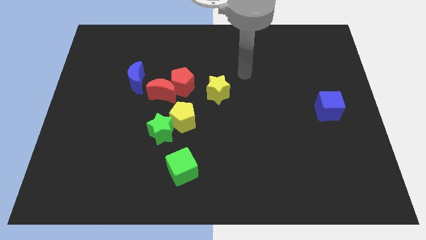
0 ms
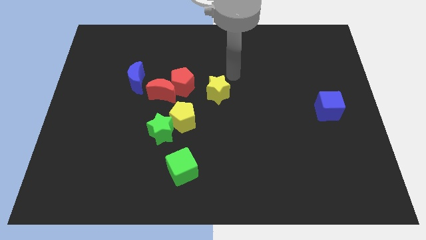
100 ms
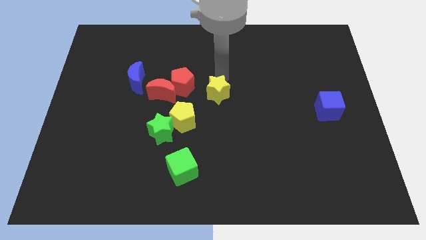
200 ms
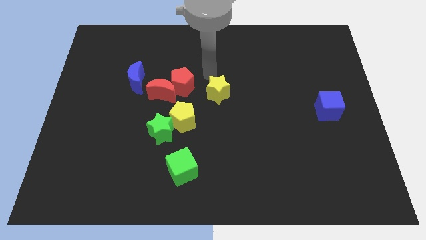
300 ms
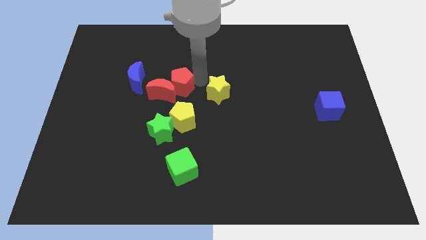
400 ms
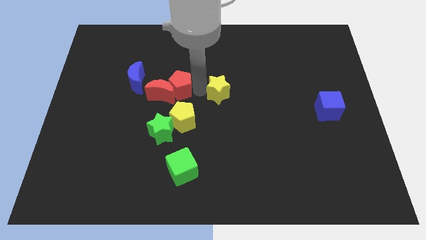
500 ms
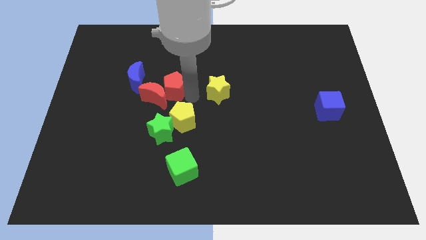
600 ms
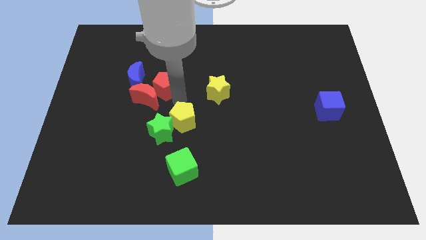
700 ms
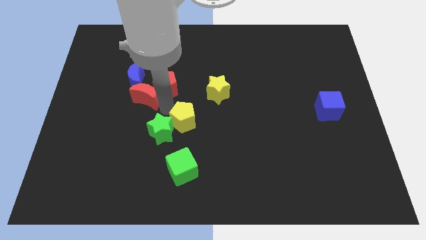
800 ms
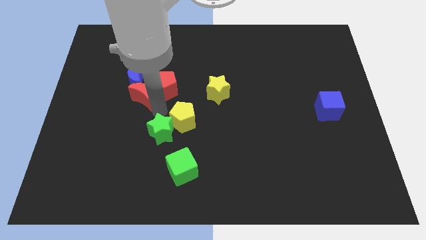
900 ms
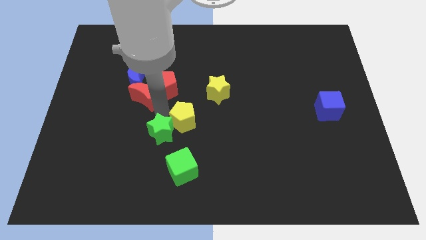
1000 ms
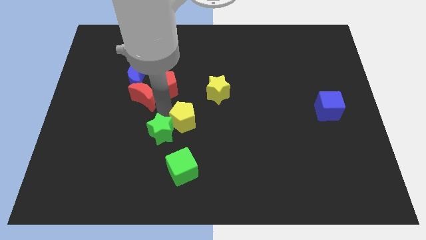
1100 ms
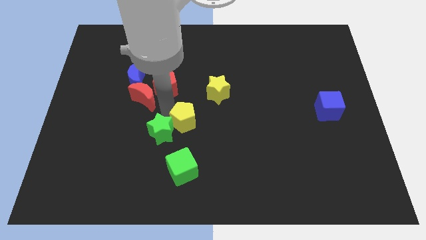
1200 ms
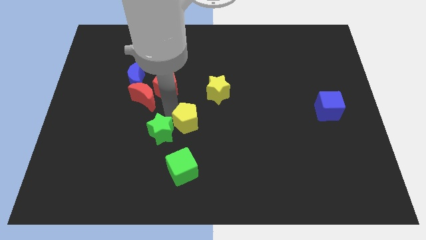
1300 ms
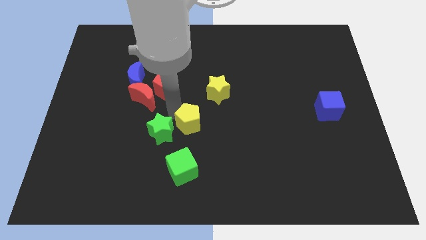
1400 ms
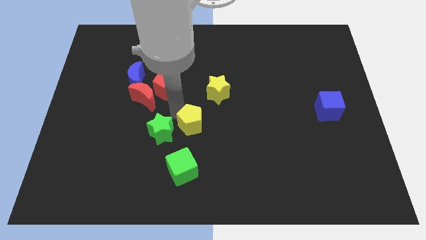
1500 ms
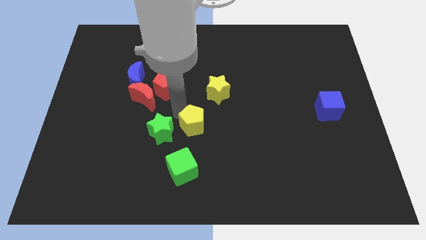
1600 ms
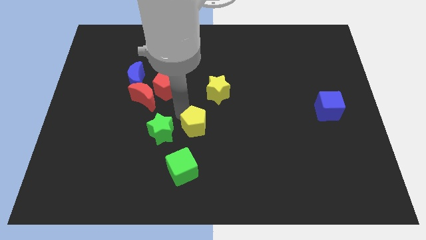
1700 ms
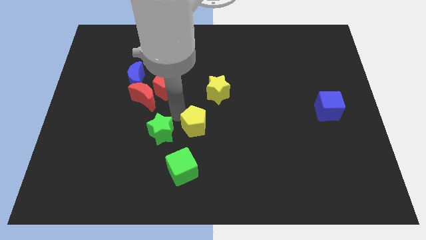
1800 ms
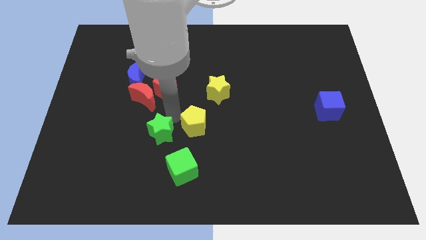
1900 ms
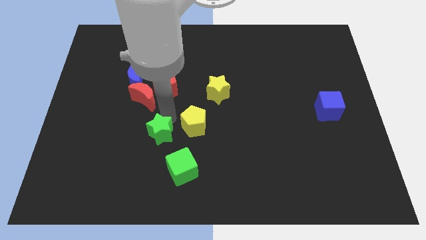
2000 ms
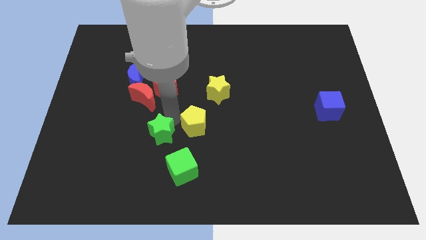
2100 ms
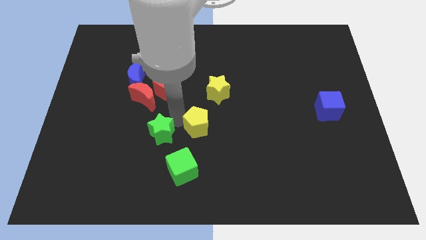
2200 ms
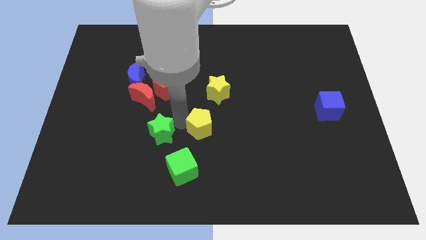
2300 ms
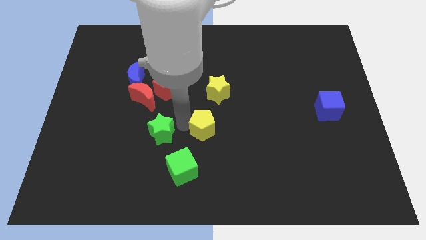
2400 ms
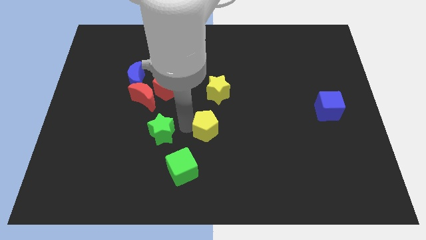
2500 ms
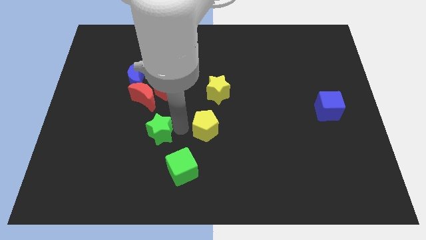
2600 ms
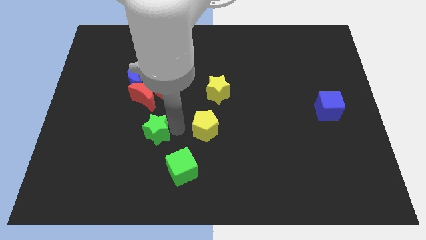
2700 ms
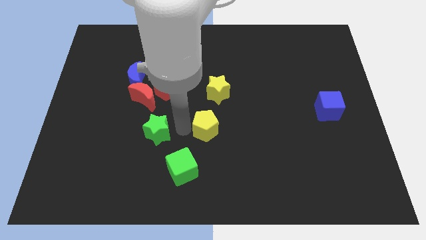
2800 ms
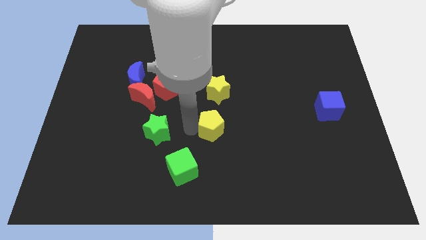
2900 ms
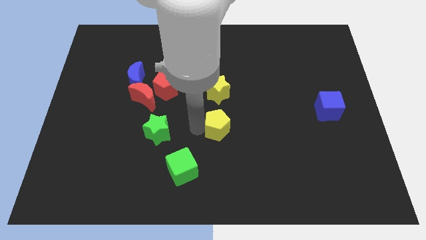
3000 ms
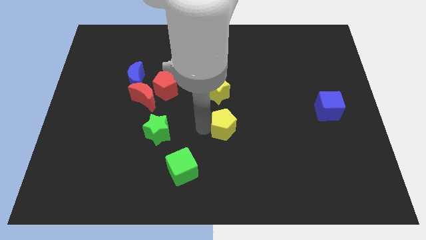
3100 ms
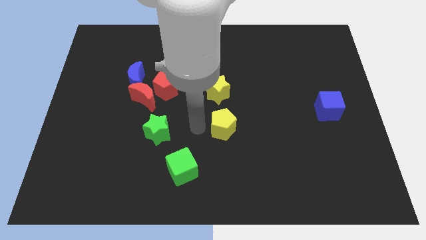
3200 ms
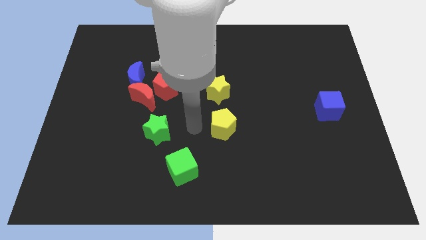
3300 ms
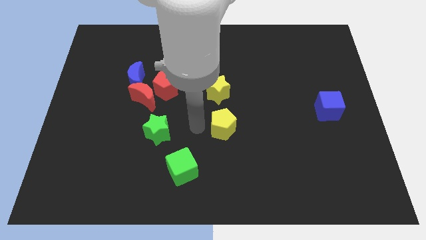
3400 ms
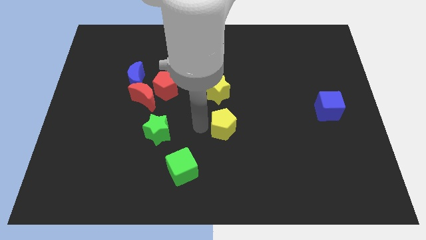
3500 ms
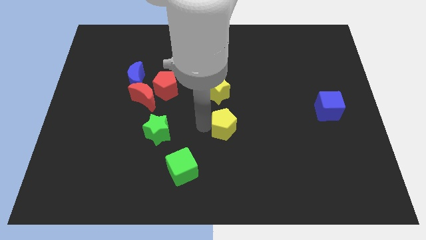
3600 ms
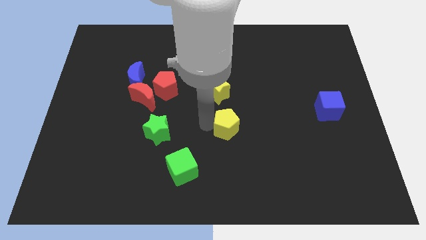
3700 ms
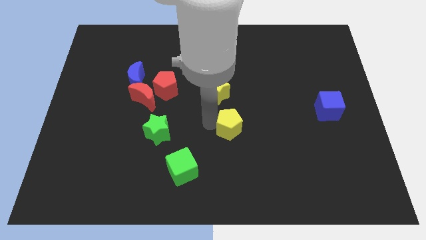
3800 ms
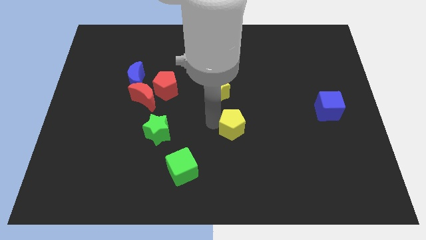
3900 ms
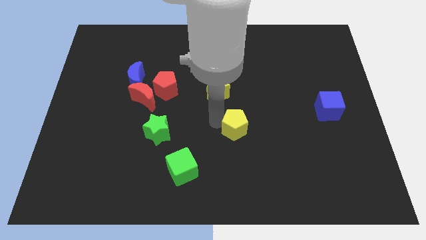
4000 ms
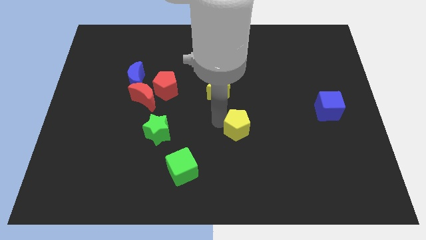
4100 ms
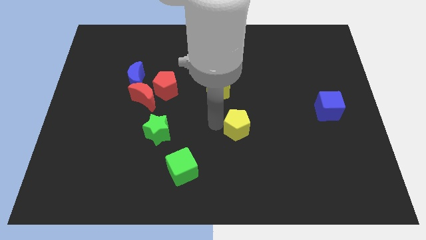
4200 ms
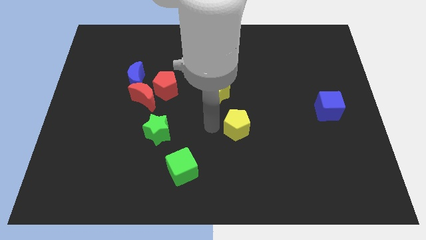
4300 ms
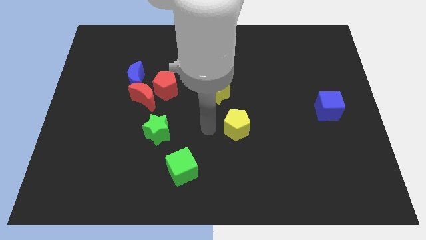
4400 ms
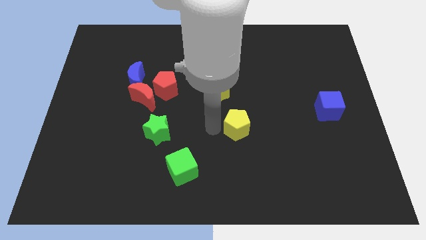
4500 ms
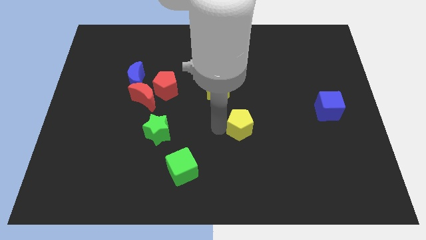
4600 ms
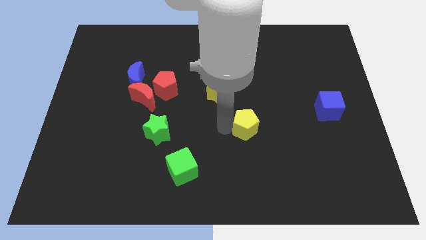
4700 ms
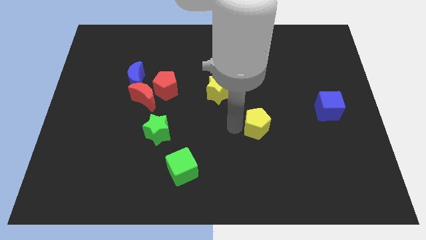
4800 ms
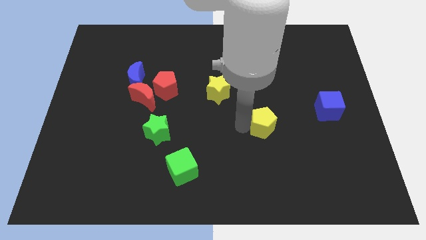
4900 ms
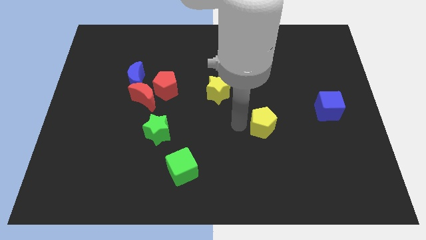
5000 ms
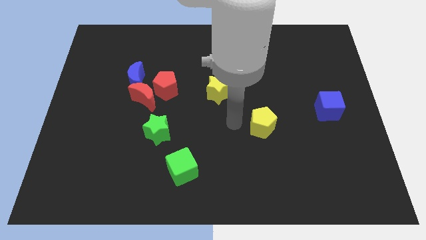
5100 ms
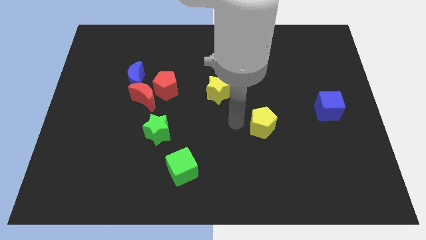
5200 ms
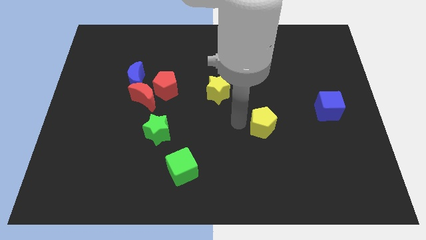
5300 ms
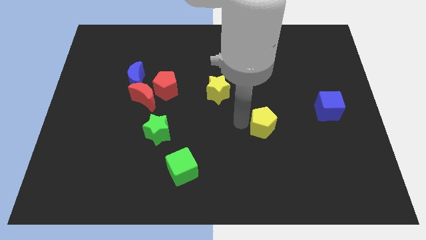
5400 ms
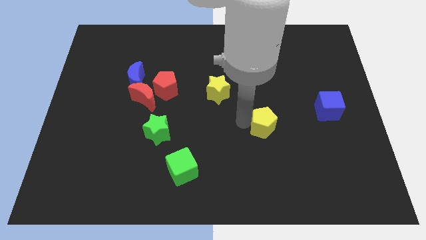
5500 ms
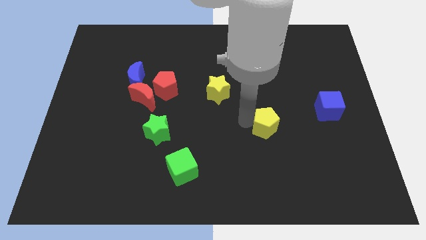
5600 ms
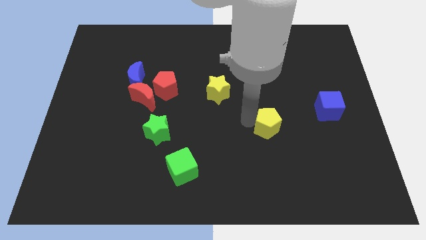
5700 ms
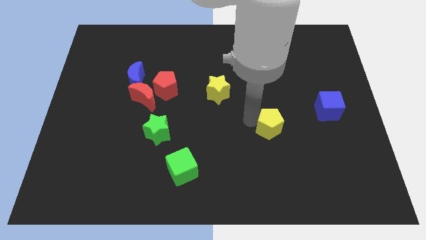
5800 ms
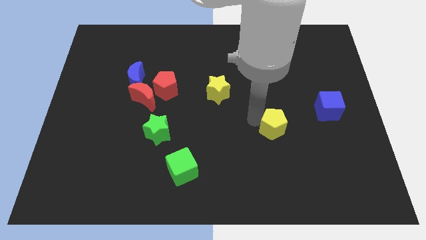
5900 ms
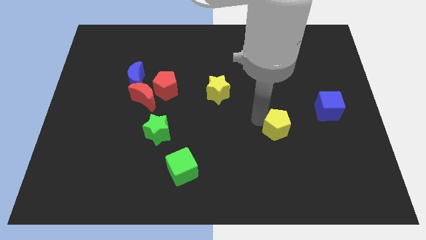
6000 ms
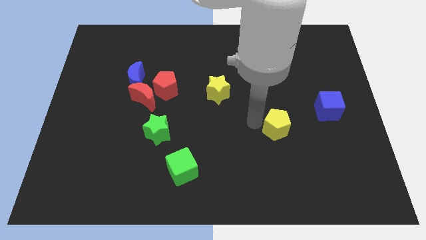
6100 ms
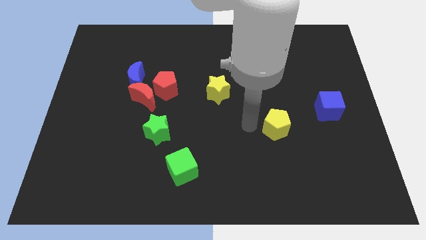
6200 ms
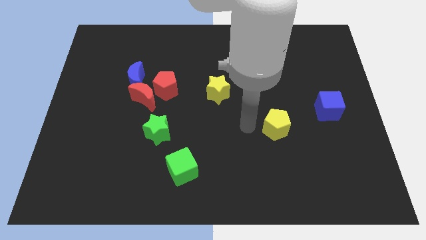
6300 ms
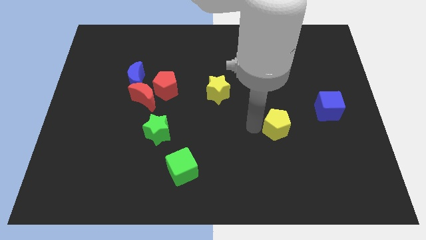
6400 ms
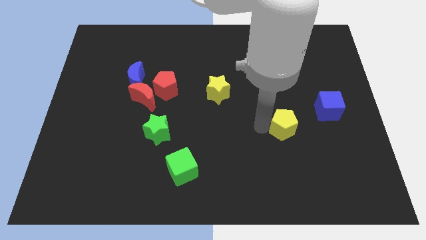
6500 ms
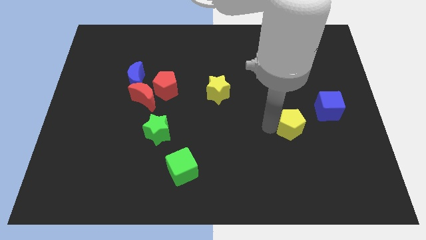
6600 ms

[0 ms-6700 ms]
put the yellow pentagon diagonally down and to the left of the blue cube

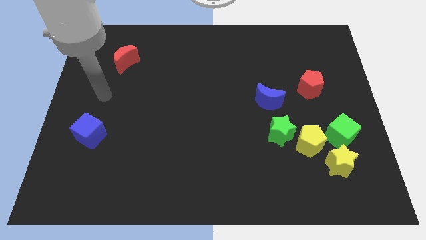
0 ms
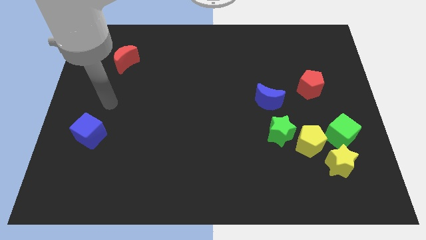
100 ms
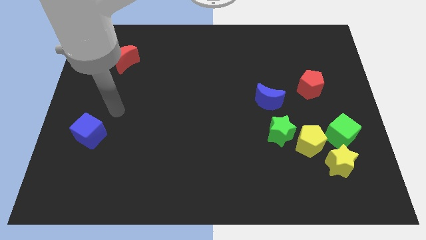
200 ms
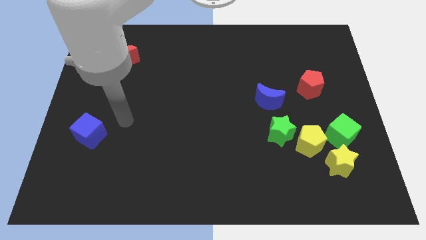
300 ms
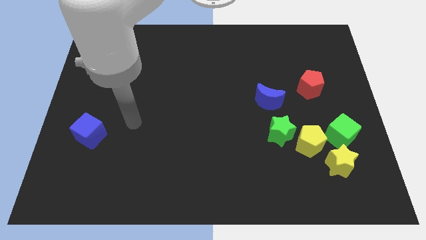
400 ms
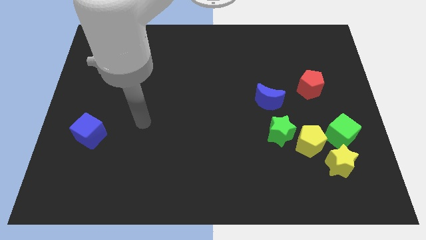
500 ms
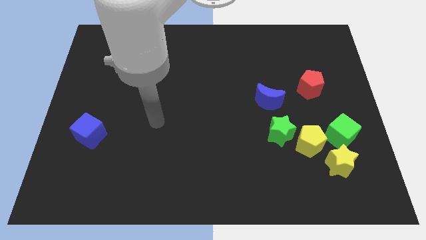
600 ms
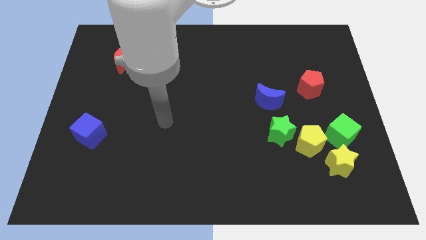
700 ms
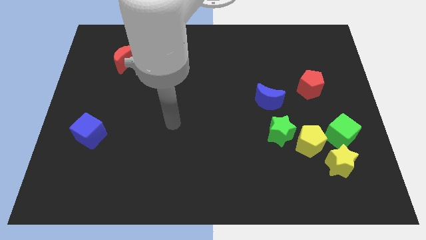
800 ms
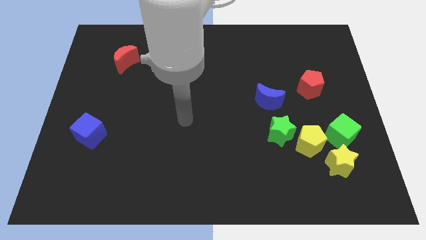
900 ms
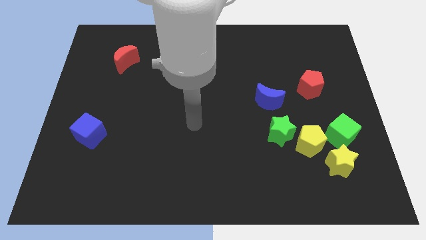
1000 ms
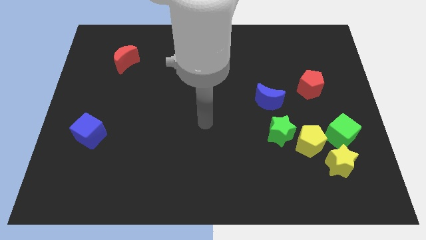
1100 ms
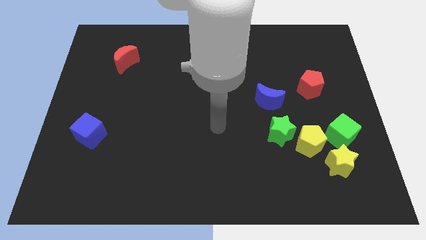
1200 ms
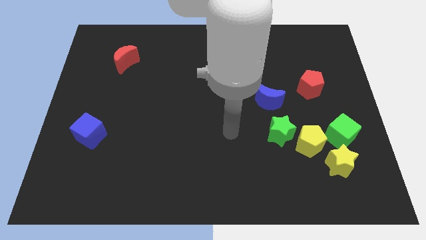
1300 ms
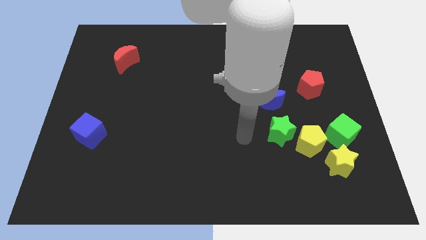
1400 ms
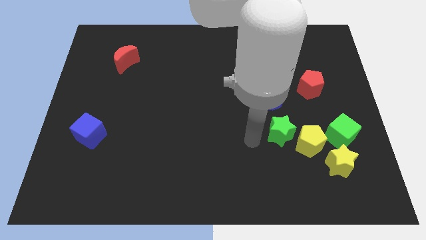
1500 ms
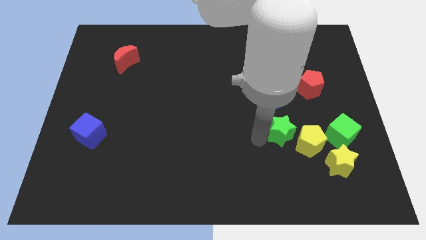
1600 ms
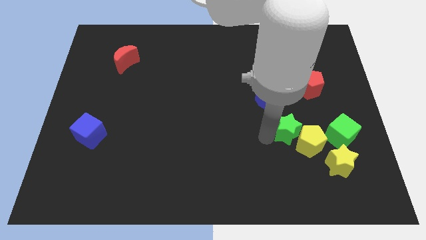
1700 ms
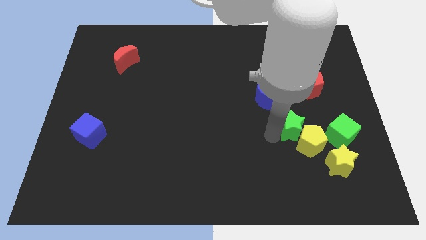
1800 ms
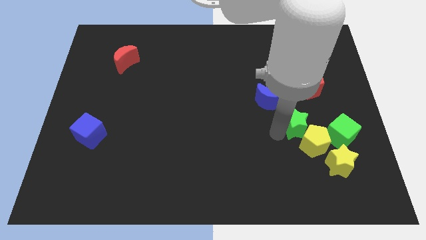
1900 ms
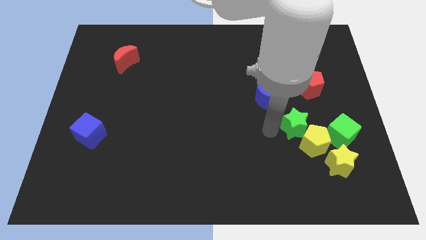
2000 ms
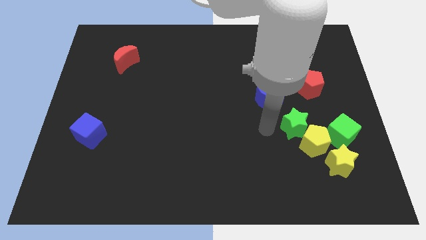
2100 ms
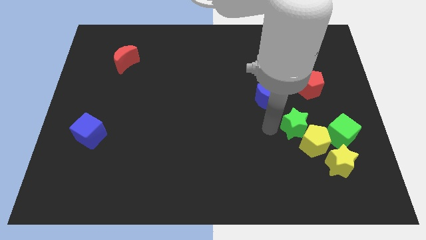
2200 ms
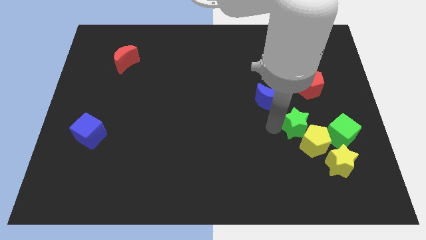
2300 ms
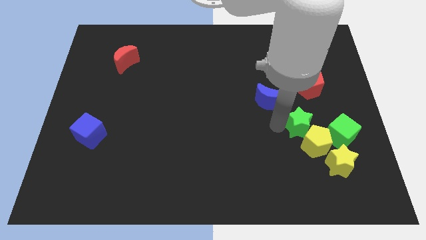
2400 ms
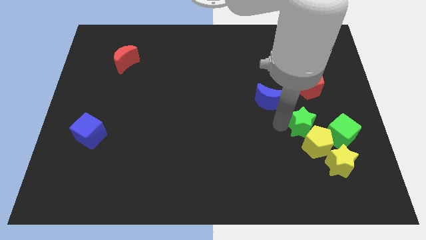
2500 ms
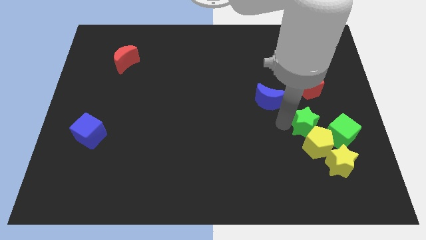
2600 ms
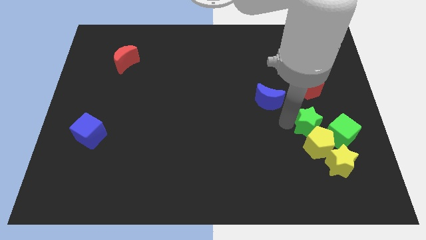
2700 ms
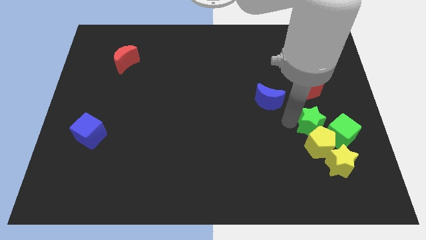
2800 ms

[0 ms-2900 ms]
push the green star above the yellow star
